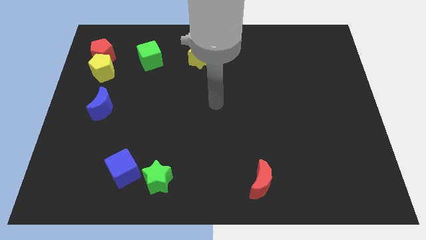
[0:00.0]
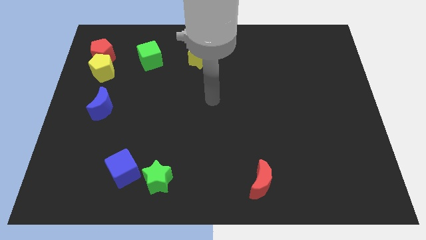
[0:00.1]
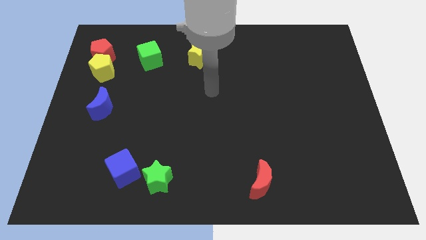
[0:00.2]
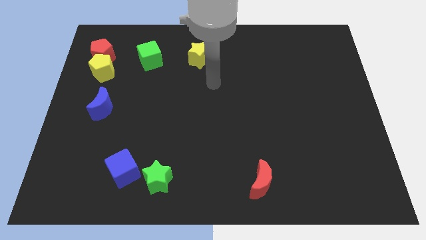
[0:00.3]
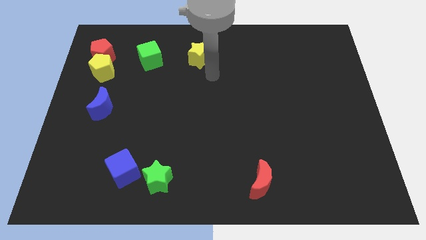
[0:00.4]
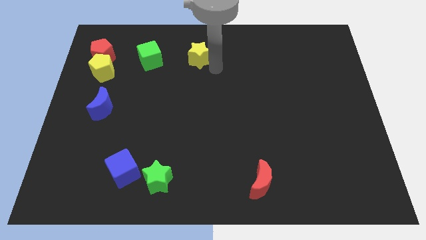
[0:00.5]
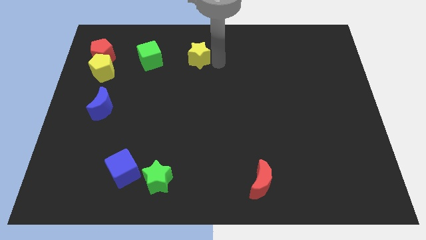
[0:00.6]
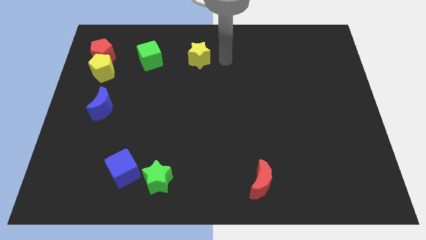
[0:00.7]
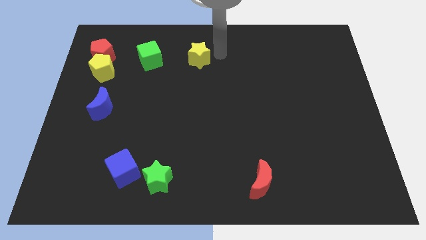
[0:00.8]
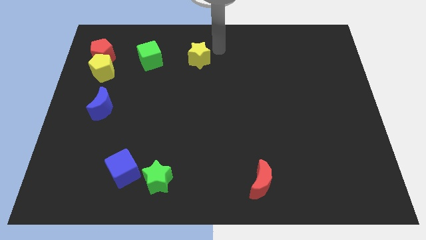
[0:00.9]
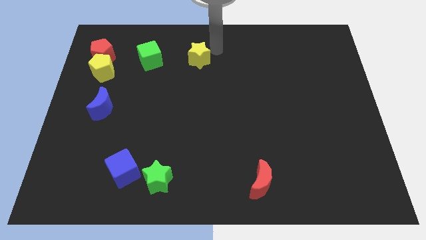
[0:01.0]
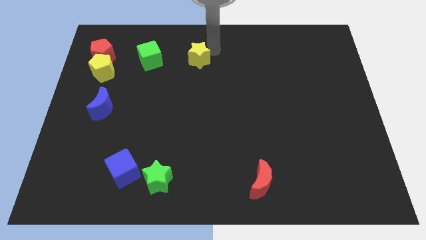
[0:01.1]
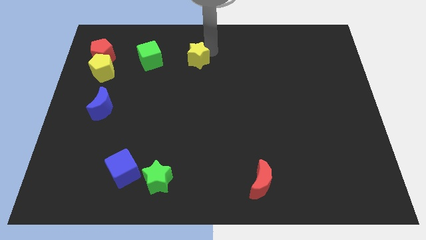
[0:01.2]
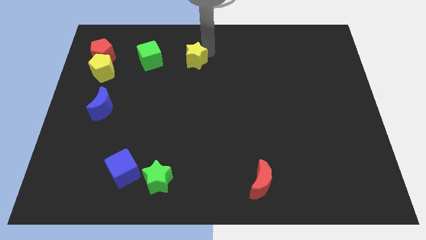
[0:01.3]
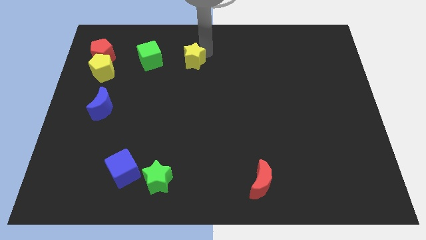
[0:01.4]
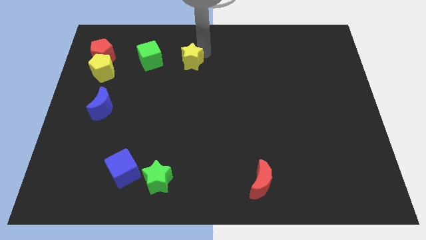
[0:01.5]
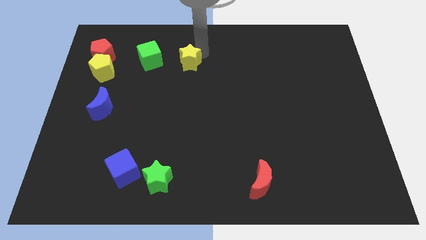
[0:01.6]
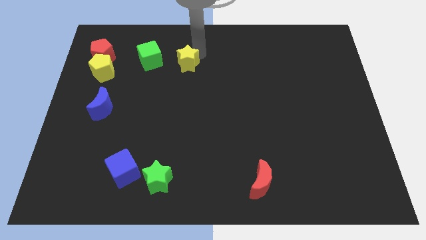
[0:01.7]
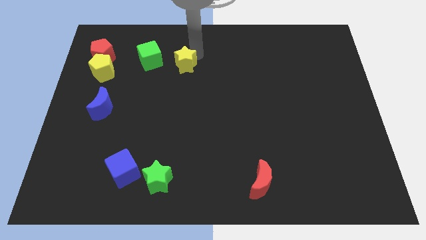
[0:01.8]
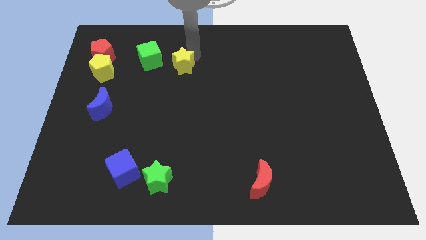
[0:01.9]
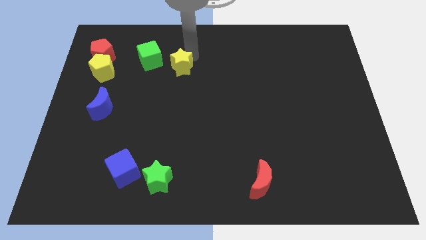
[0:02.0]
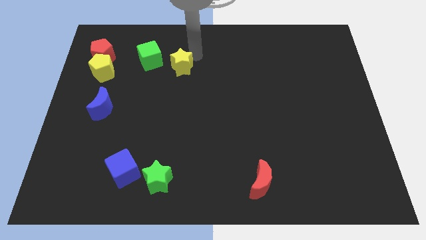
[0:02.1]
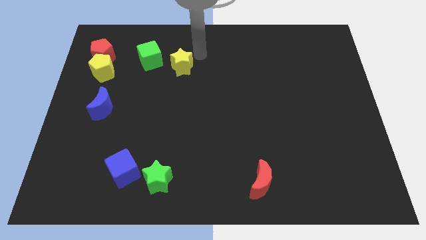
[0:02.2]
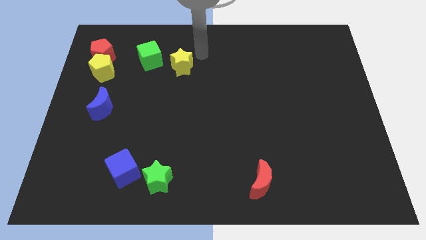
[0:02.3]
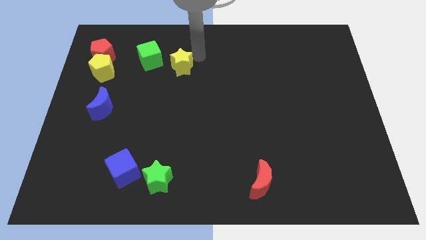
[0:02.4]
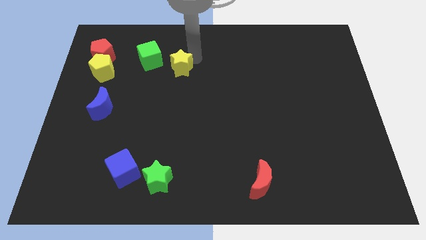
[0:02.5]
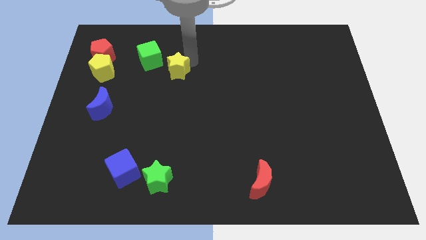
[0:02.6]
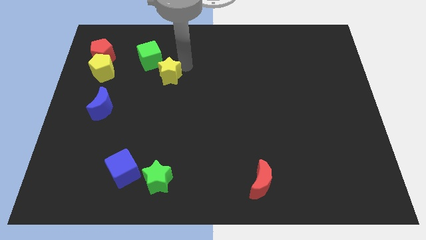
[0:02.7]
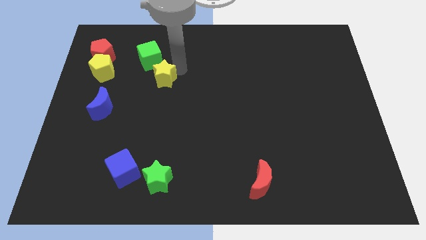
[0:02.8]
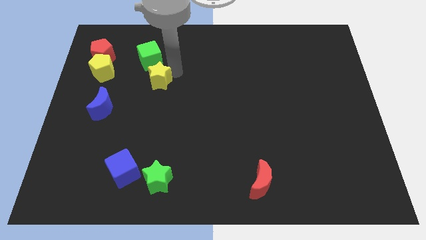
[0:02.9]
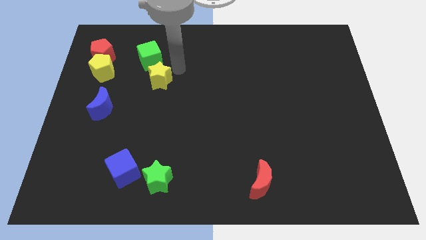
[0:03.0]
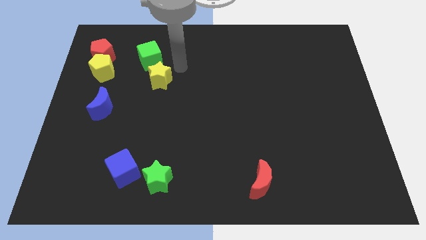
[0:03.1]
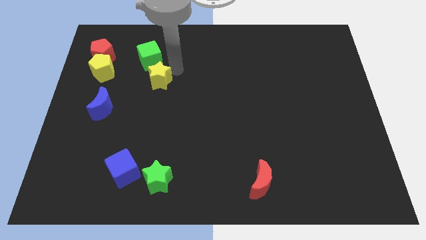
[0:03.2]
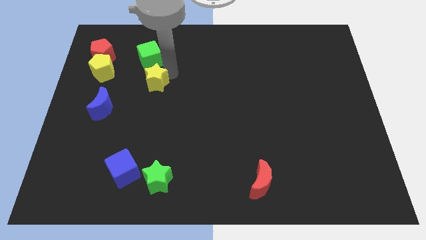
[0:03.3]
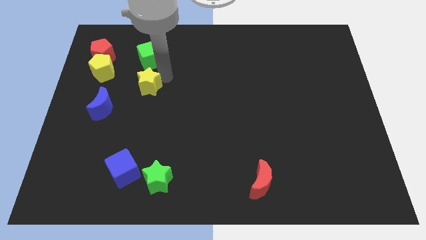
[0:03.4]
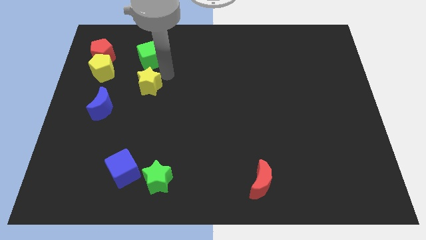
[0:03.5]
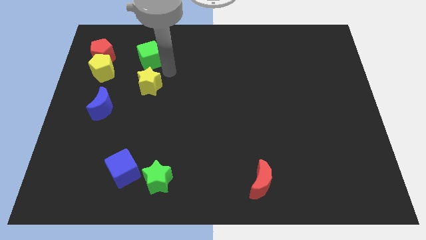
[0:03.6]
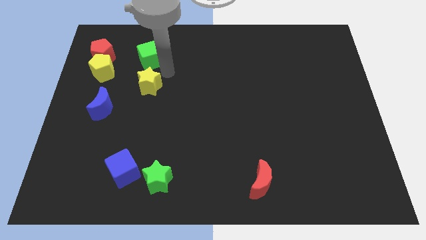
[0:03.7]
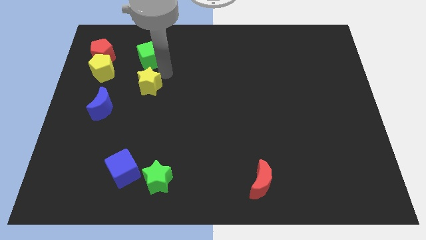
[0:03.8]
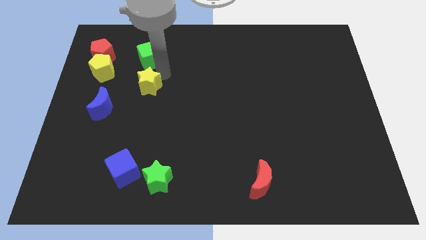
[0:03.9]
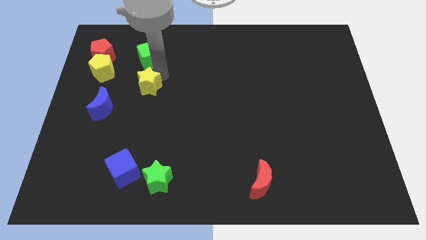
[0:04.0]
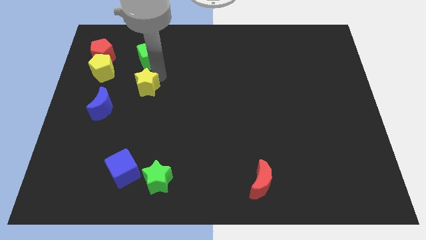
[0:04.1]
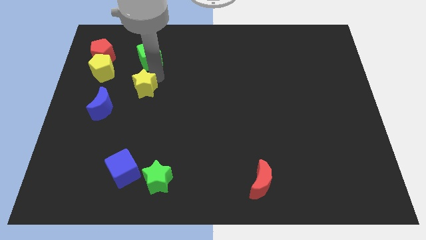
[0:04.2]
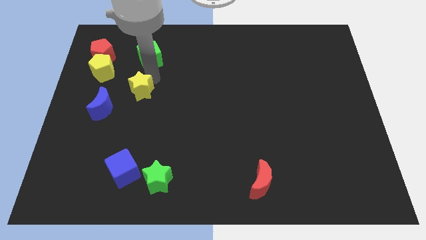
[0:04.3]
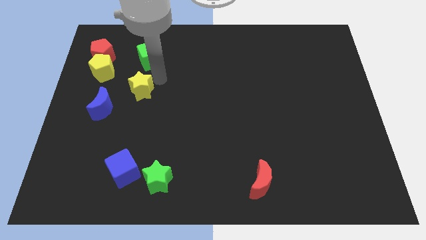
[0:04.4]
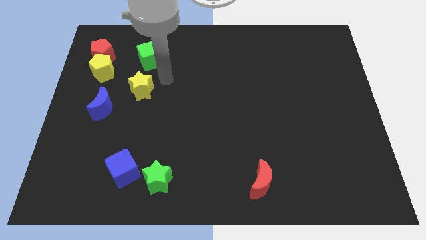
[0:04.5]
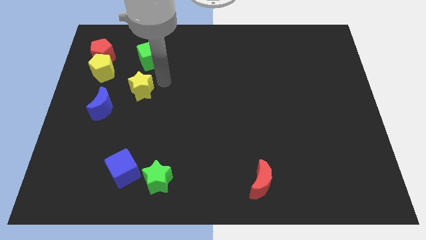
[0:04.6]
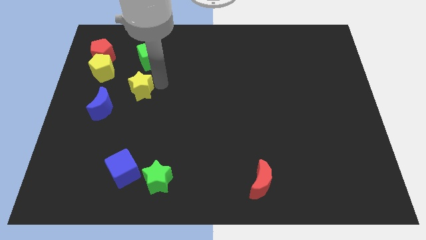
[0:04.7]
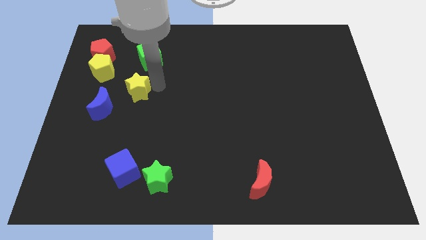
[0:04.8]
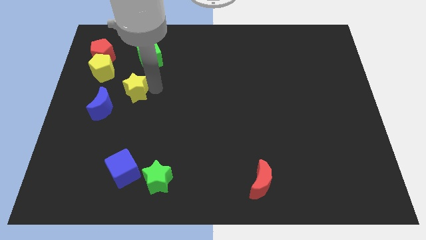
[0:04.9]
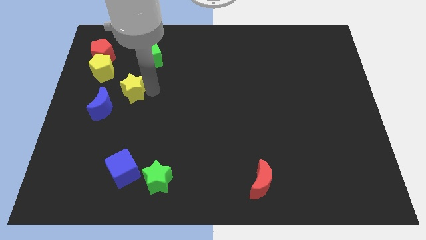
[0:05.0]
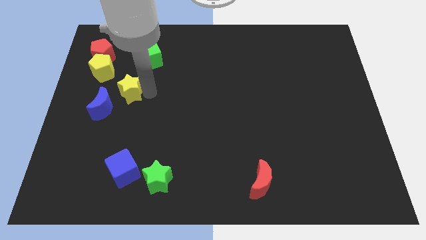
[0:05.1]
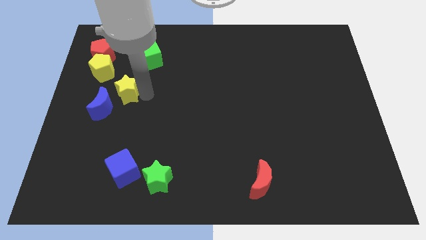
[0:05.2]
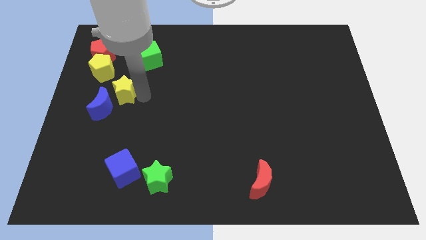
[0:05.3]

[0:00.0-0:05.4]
slide the yellow star close to the blue moon

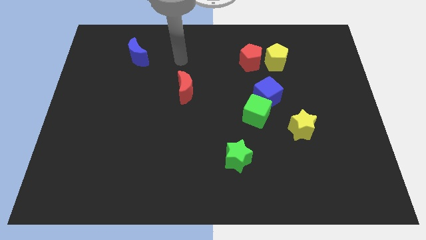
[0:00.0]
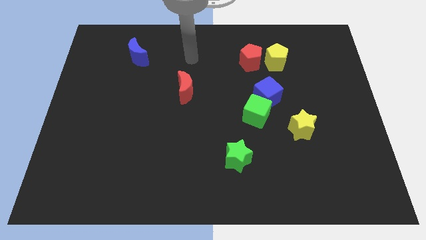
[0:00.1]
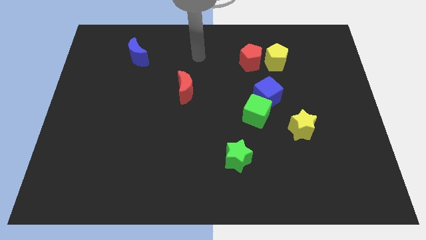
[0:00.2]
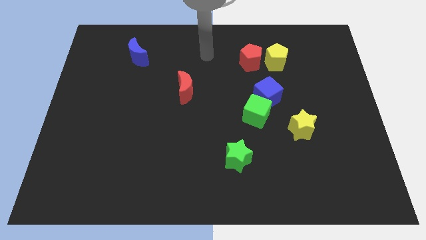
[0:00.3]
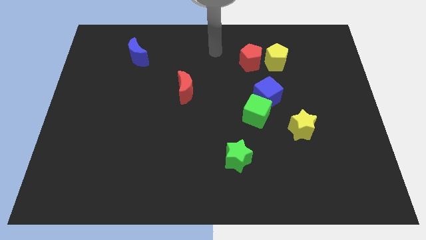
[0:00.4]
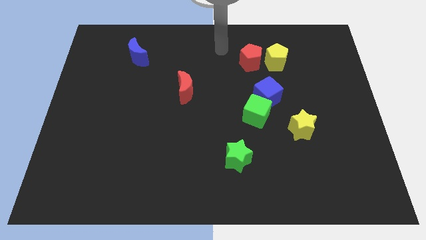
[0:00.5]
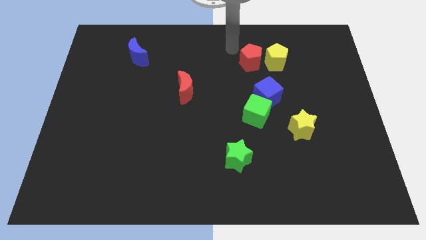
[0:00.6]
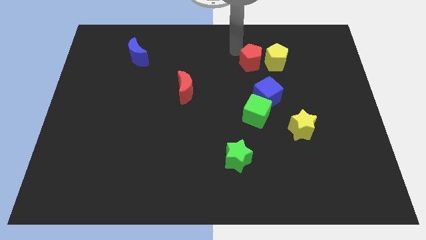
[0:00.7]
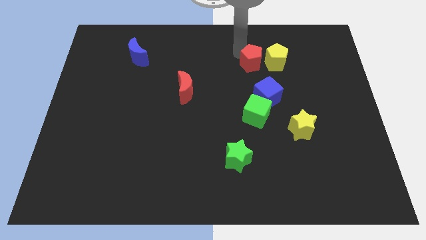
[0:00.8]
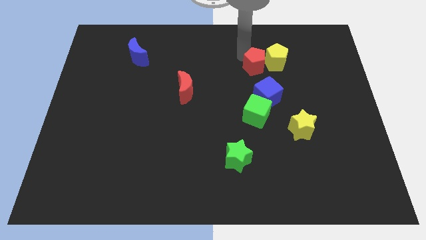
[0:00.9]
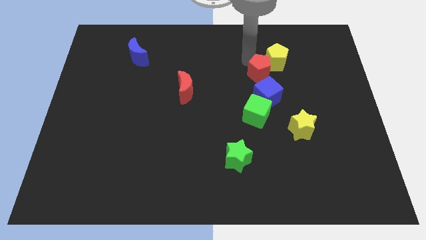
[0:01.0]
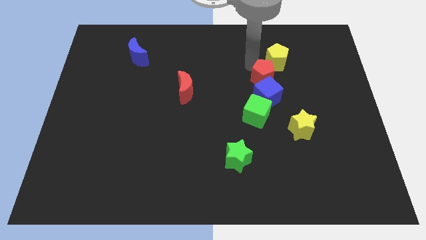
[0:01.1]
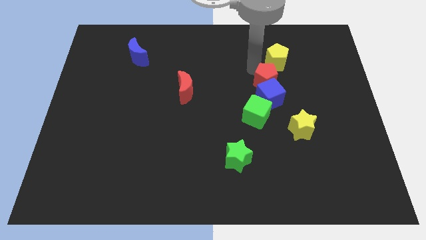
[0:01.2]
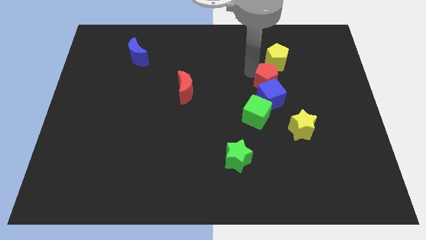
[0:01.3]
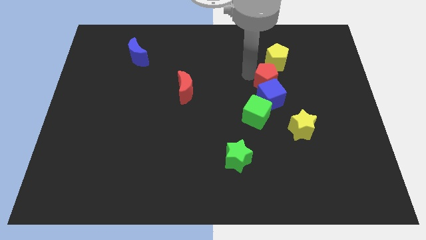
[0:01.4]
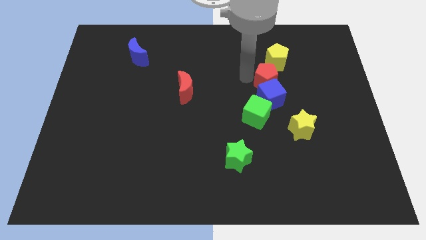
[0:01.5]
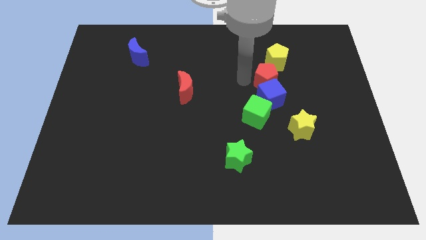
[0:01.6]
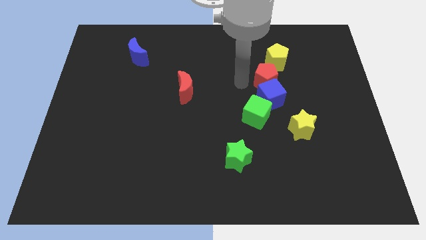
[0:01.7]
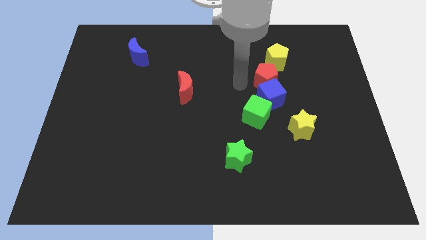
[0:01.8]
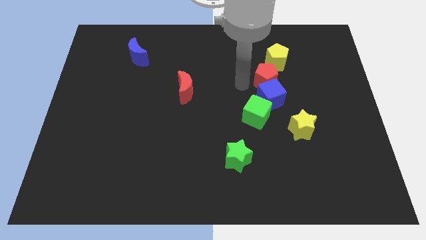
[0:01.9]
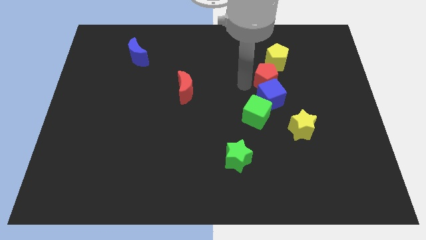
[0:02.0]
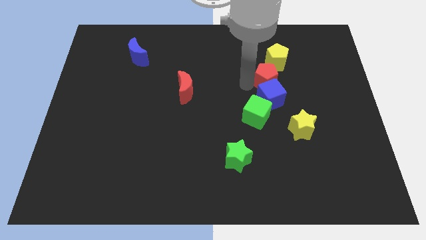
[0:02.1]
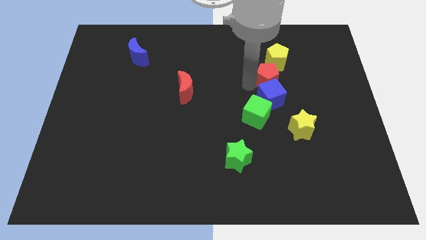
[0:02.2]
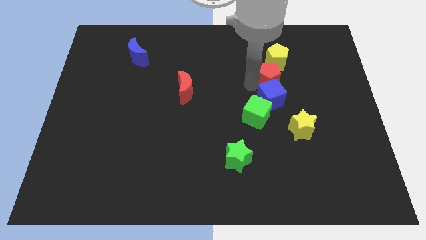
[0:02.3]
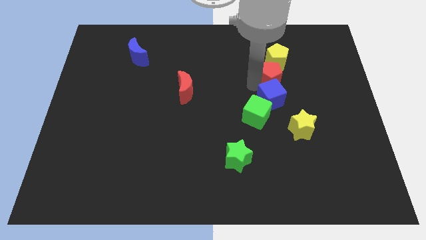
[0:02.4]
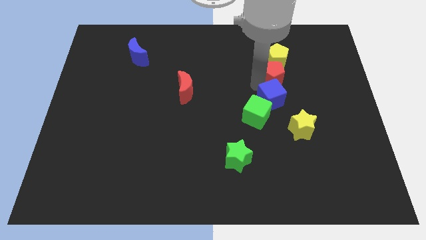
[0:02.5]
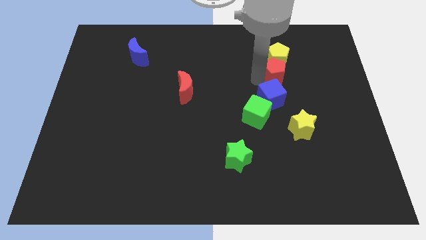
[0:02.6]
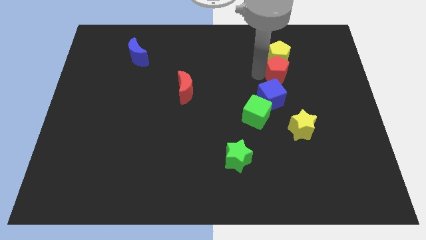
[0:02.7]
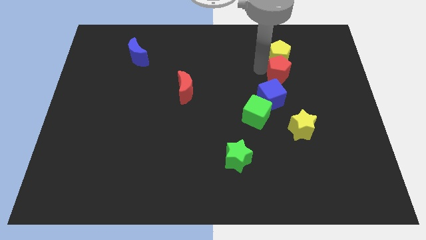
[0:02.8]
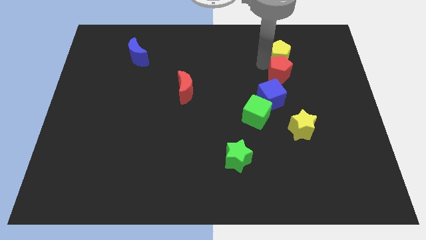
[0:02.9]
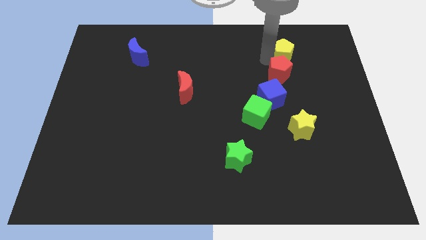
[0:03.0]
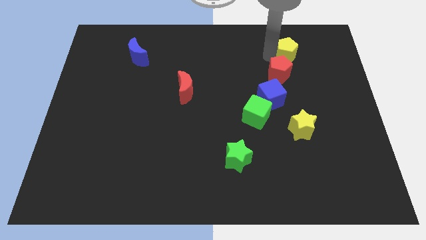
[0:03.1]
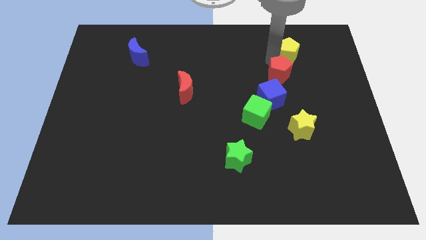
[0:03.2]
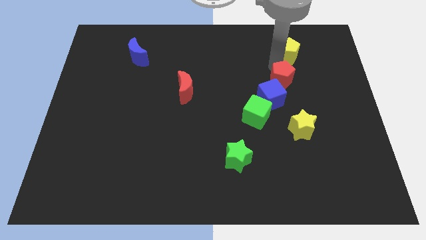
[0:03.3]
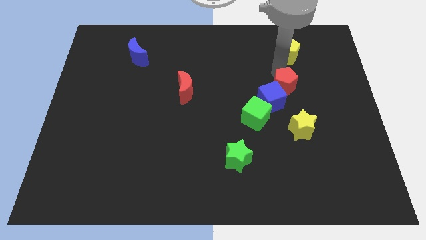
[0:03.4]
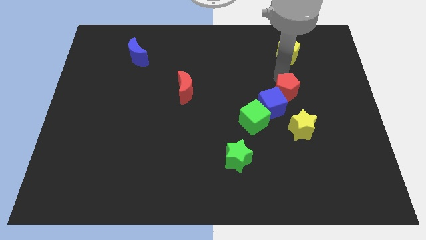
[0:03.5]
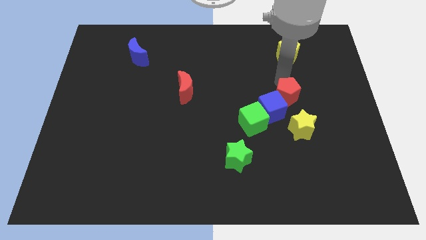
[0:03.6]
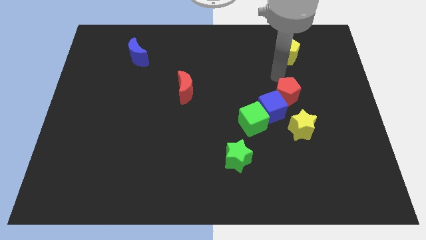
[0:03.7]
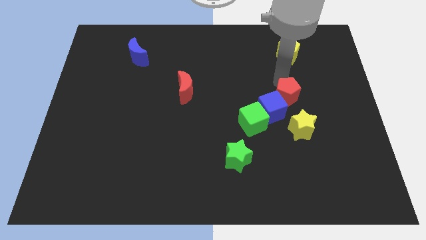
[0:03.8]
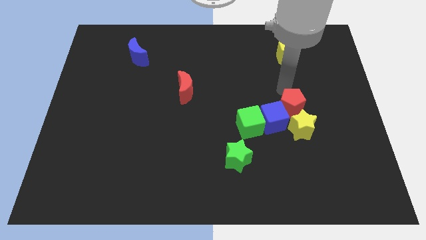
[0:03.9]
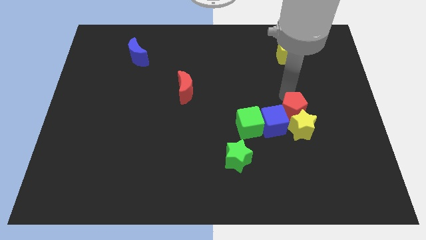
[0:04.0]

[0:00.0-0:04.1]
move the red pentagon to the yellow star
